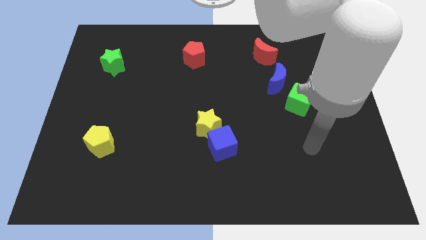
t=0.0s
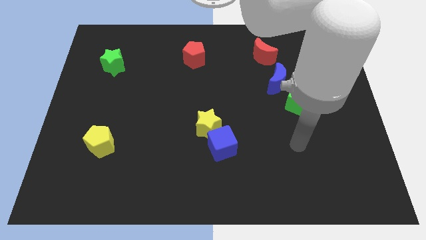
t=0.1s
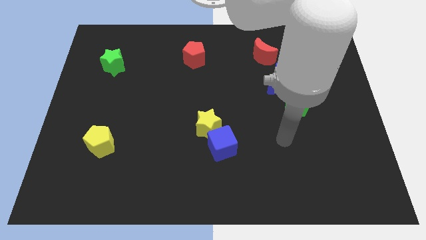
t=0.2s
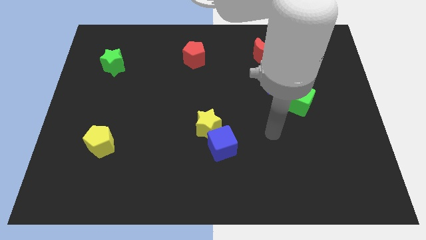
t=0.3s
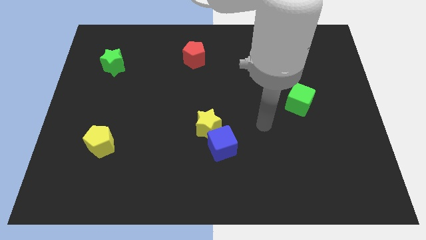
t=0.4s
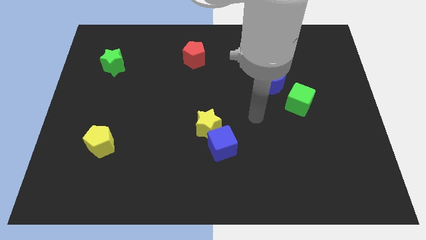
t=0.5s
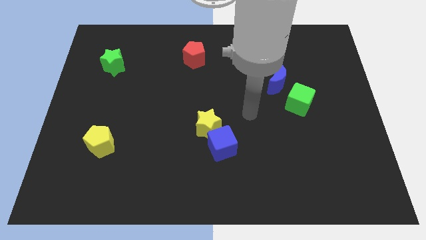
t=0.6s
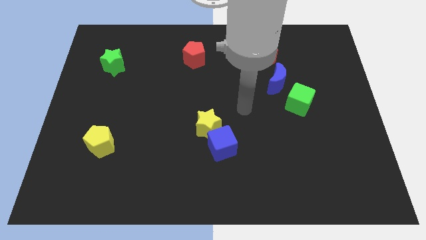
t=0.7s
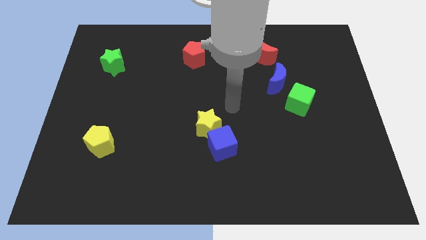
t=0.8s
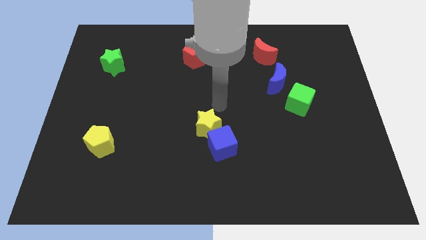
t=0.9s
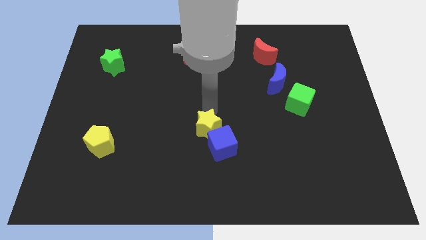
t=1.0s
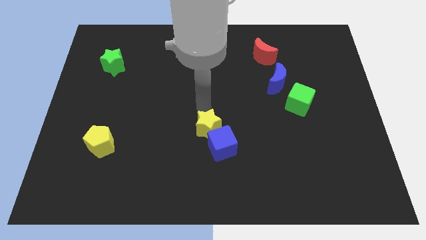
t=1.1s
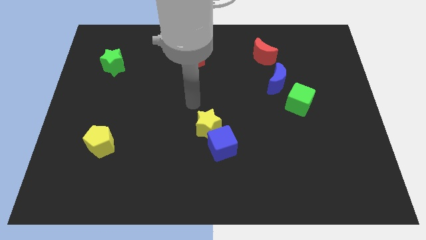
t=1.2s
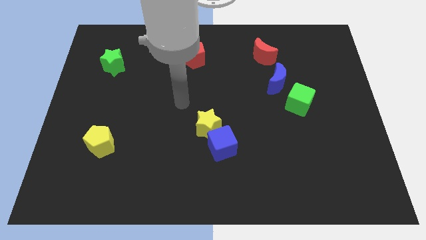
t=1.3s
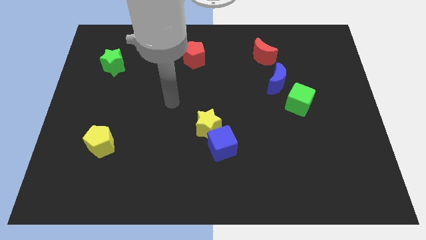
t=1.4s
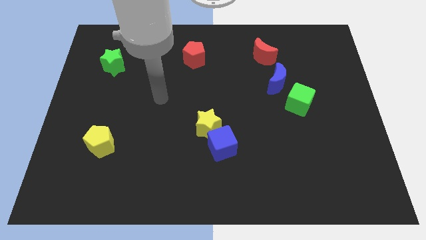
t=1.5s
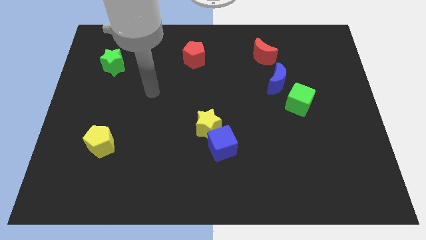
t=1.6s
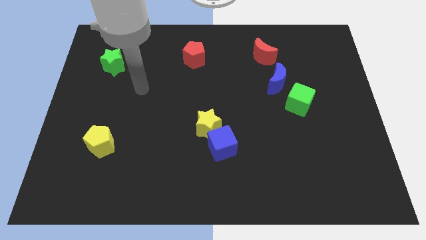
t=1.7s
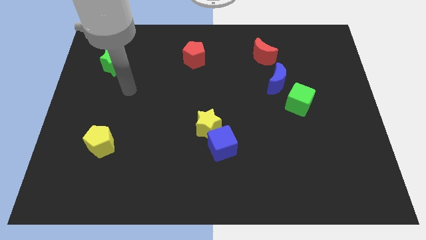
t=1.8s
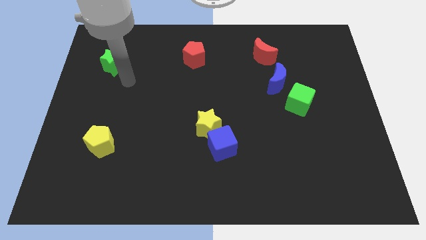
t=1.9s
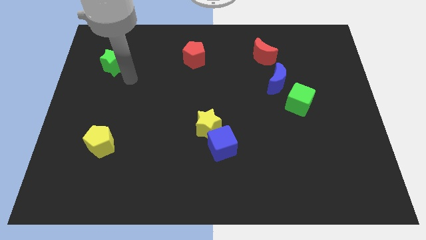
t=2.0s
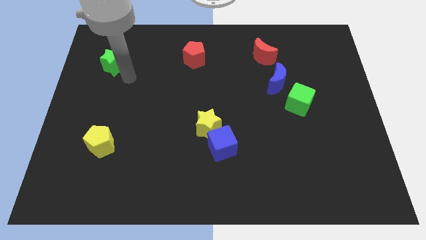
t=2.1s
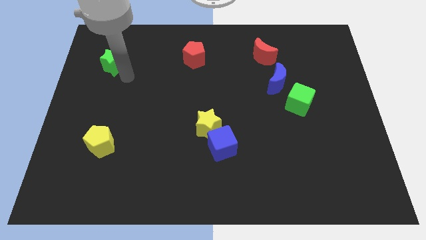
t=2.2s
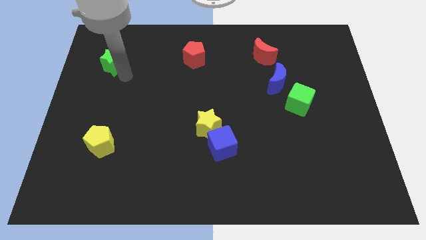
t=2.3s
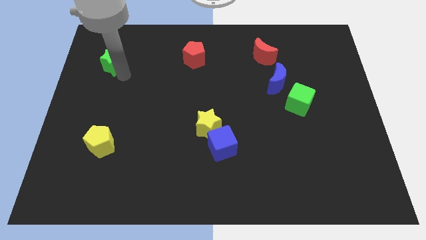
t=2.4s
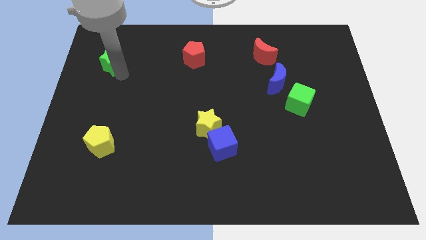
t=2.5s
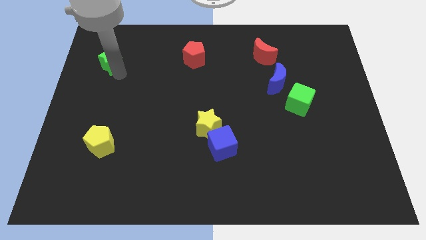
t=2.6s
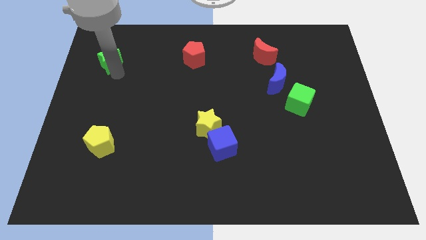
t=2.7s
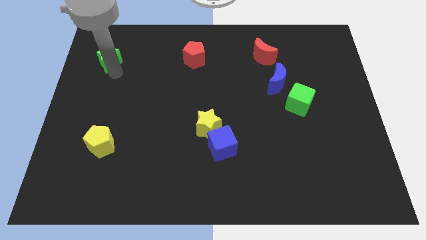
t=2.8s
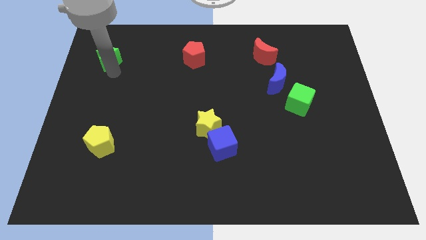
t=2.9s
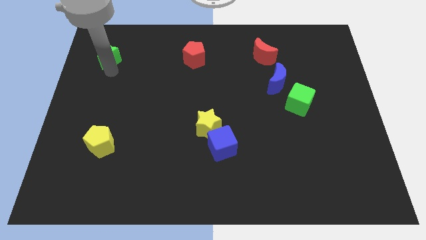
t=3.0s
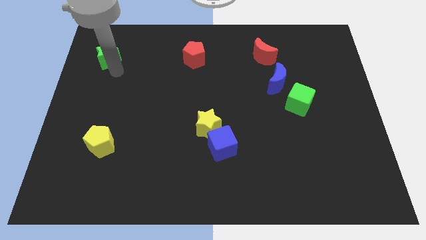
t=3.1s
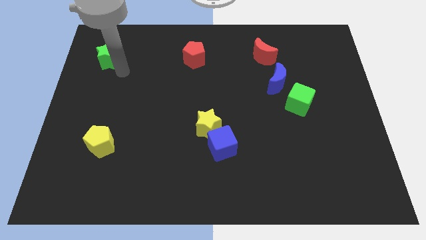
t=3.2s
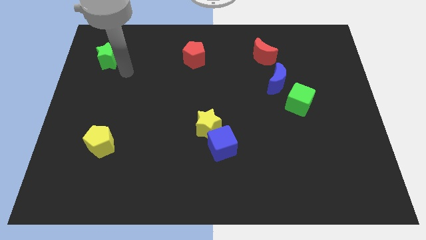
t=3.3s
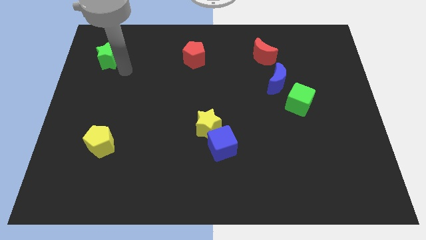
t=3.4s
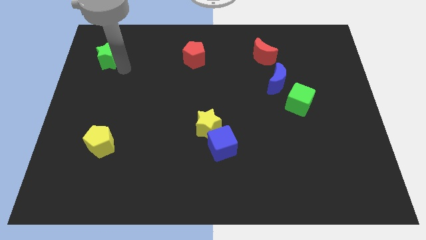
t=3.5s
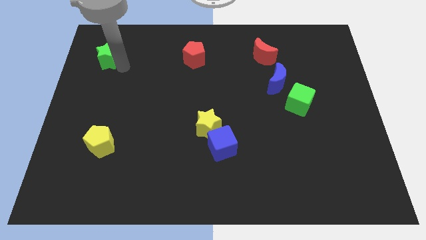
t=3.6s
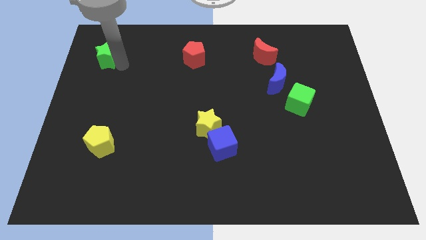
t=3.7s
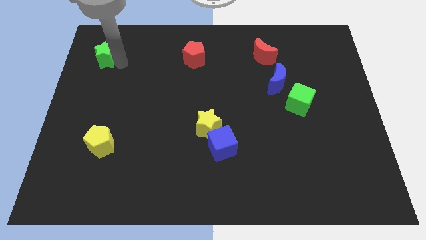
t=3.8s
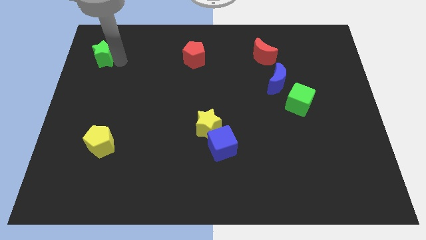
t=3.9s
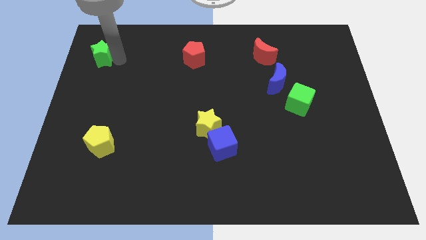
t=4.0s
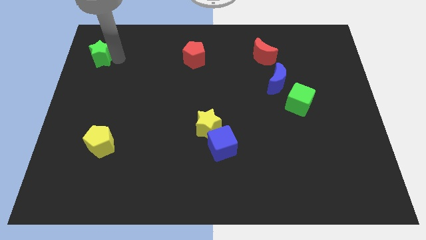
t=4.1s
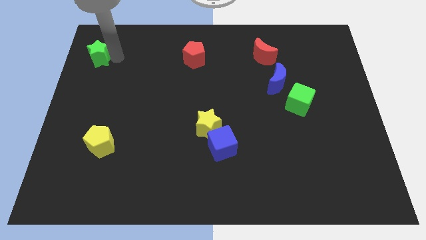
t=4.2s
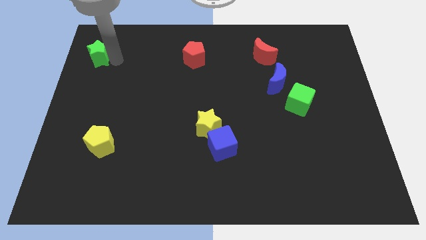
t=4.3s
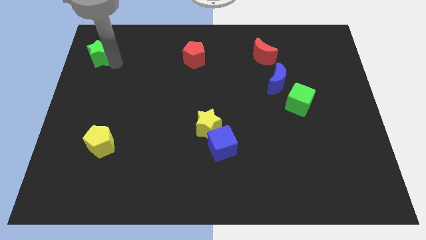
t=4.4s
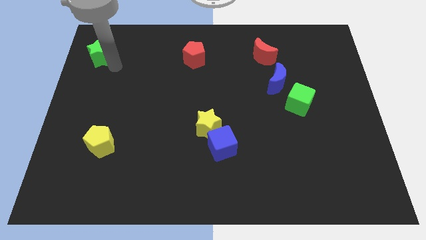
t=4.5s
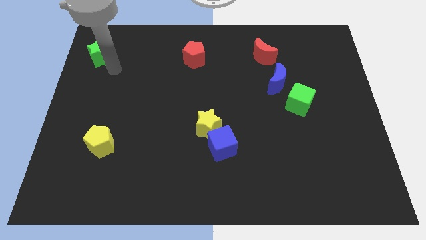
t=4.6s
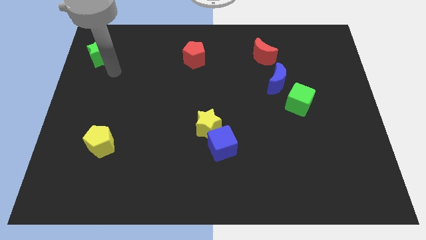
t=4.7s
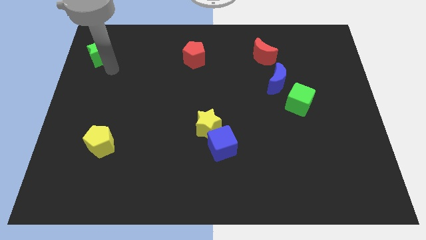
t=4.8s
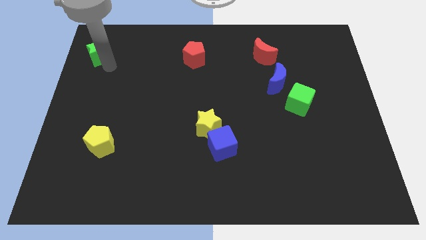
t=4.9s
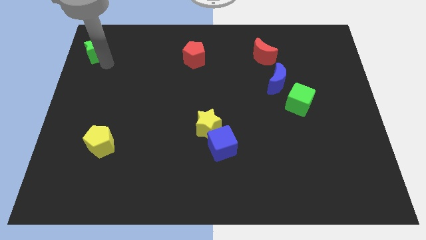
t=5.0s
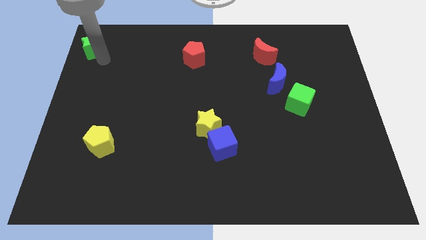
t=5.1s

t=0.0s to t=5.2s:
push the green star to the upper left corner

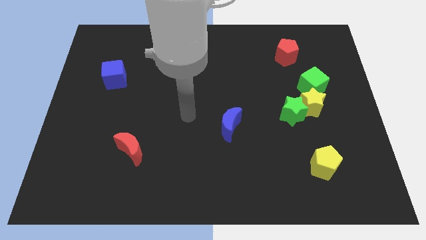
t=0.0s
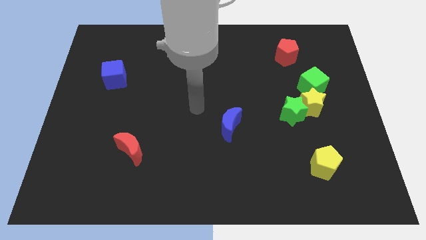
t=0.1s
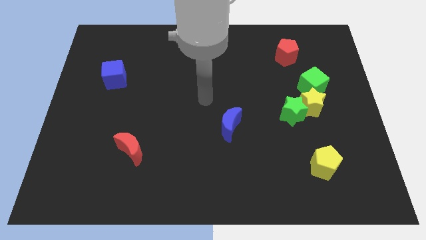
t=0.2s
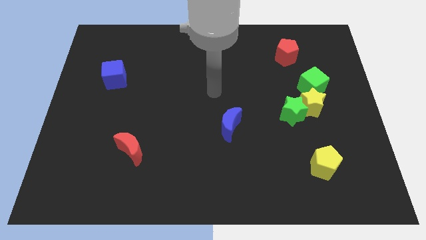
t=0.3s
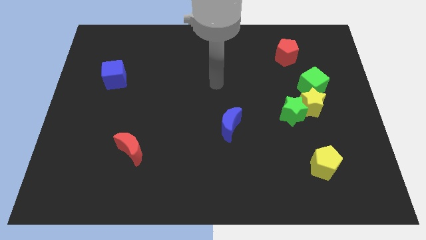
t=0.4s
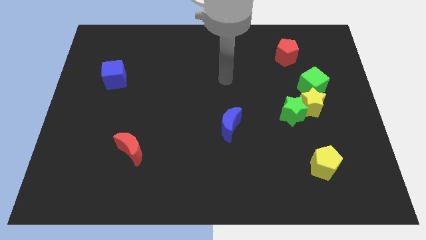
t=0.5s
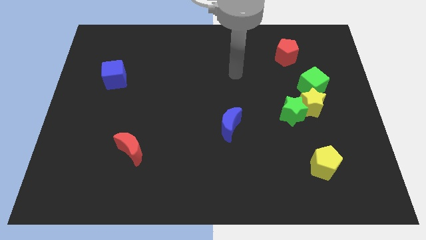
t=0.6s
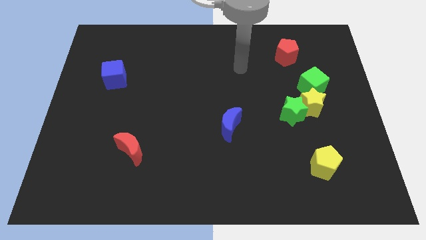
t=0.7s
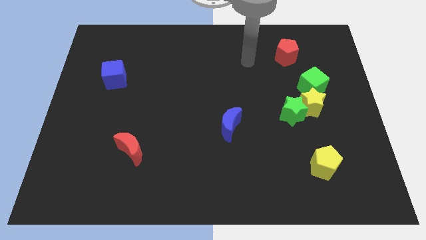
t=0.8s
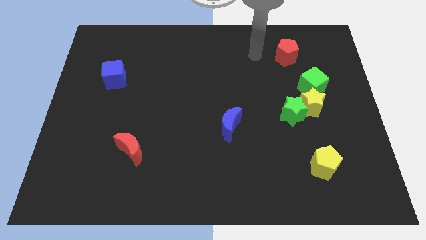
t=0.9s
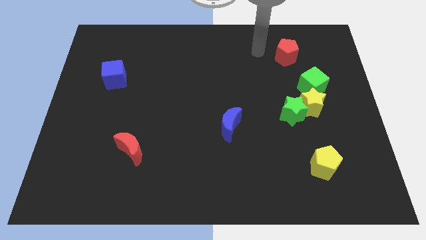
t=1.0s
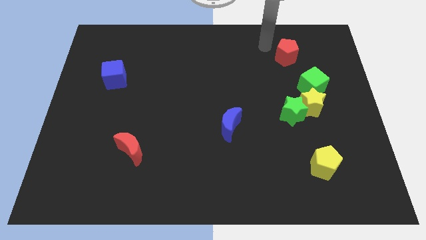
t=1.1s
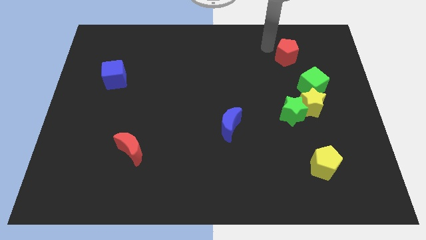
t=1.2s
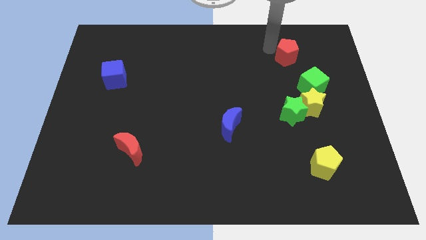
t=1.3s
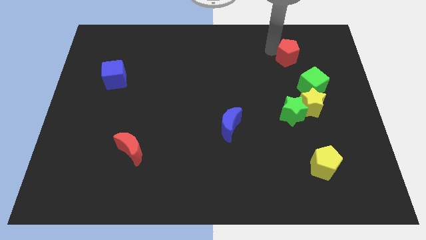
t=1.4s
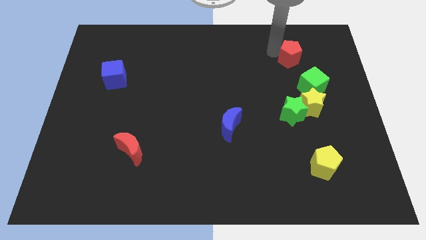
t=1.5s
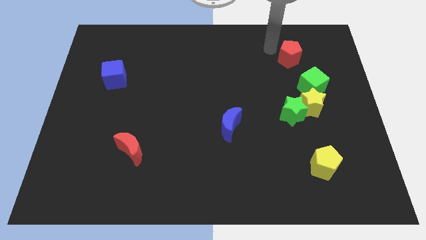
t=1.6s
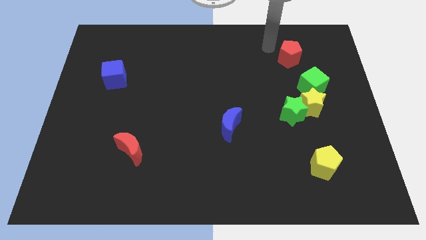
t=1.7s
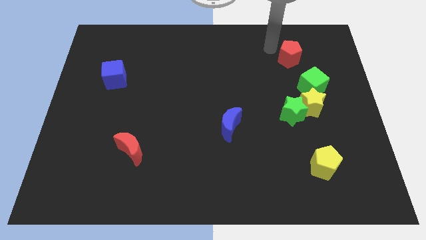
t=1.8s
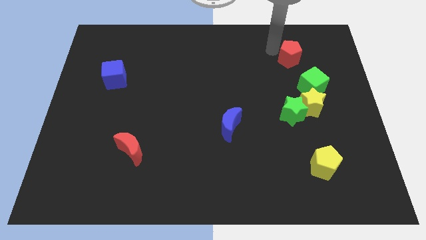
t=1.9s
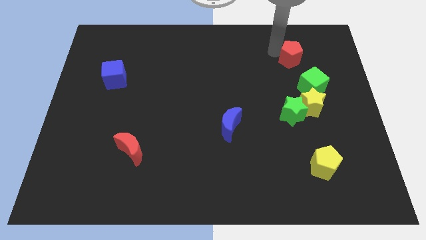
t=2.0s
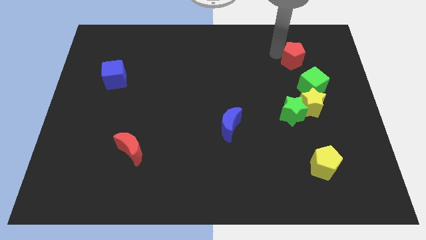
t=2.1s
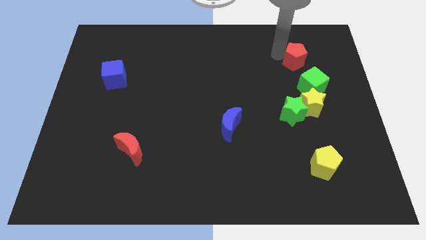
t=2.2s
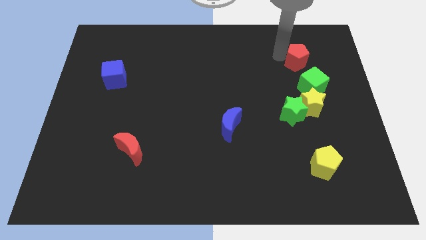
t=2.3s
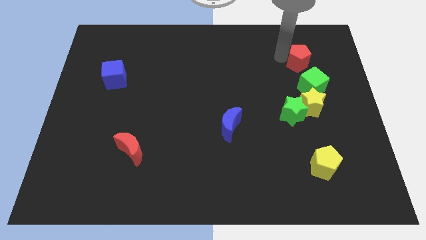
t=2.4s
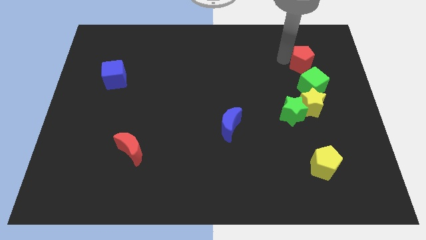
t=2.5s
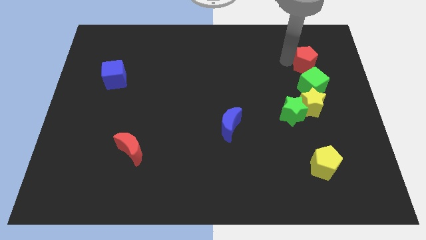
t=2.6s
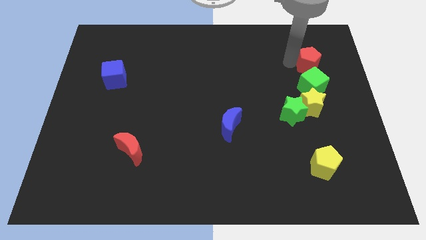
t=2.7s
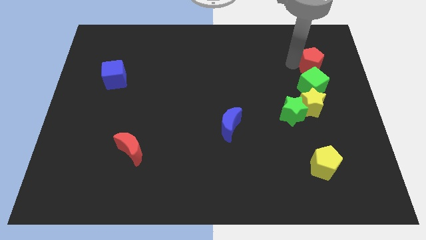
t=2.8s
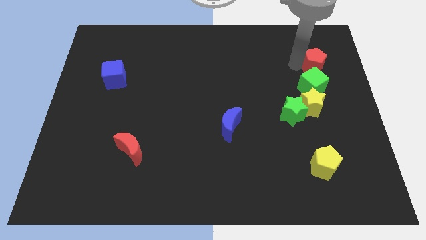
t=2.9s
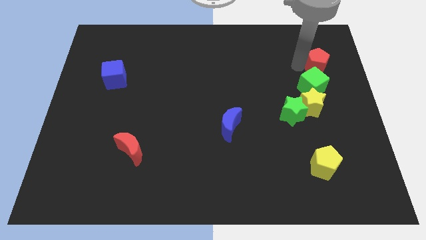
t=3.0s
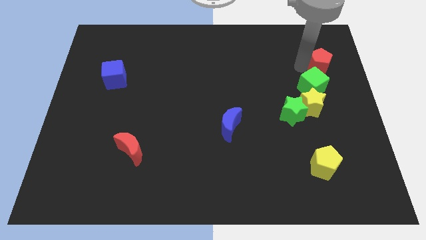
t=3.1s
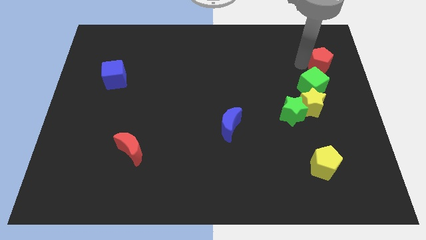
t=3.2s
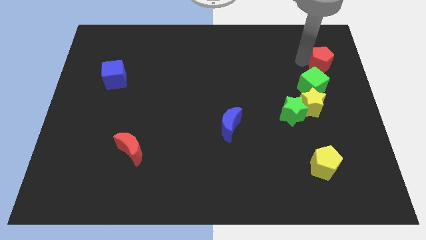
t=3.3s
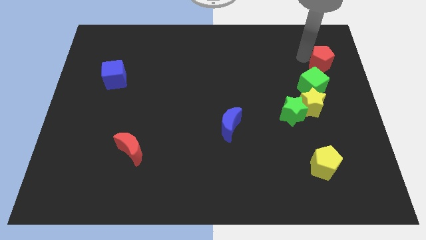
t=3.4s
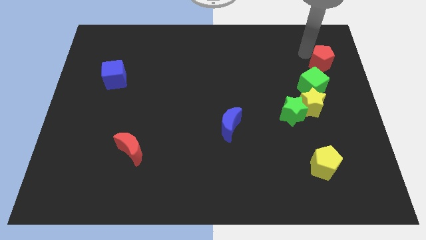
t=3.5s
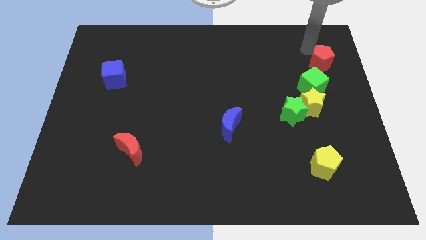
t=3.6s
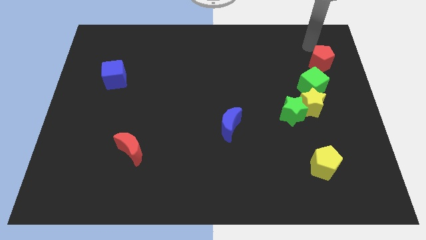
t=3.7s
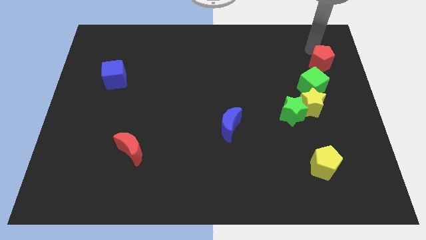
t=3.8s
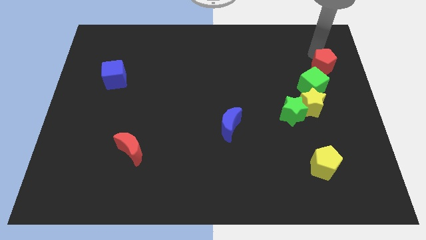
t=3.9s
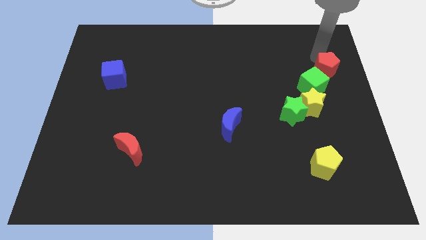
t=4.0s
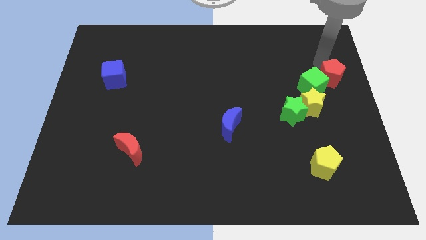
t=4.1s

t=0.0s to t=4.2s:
move the red pentagon to the center right
